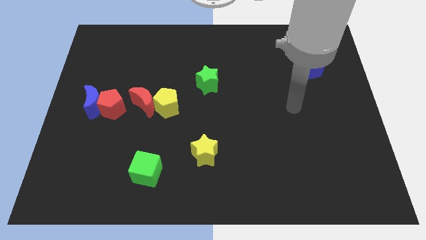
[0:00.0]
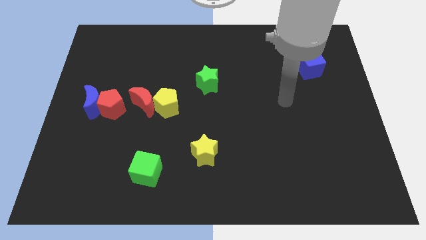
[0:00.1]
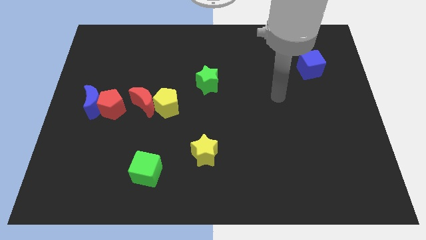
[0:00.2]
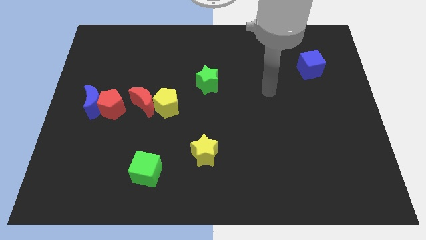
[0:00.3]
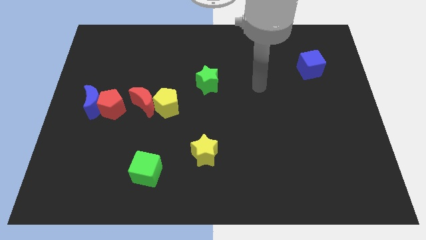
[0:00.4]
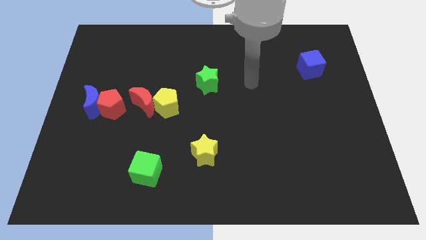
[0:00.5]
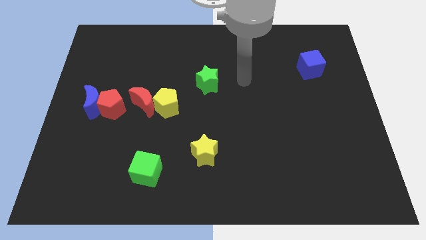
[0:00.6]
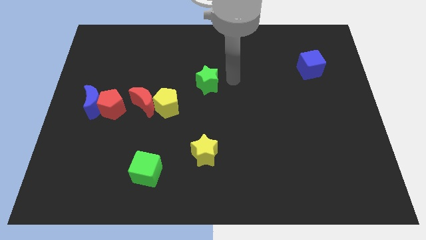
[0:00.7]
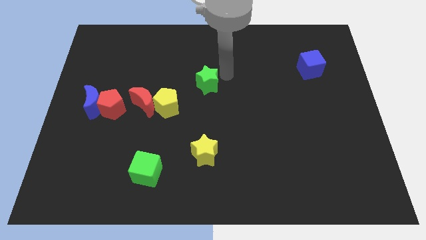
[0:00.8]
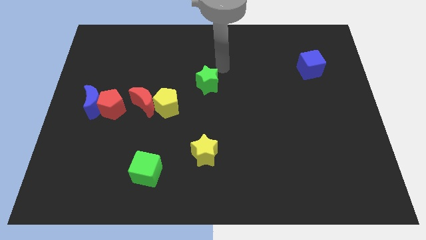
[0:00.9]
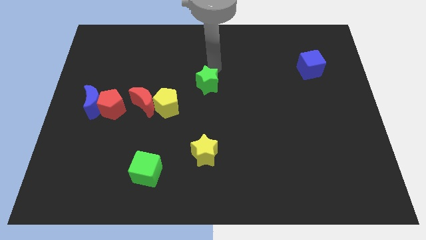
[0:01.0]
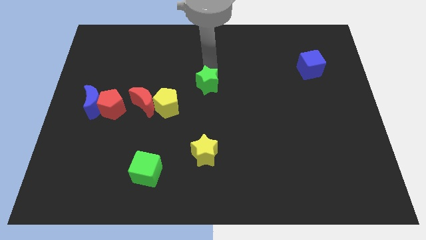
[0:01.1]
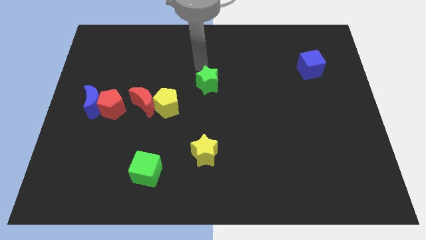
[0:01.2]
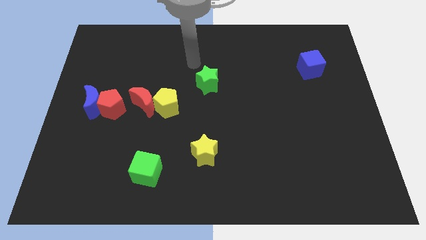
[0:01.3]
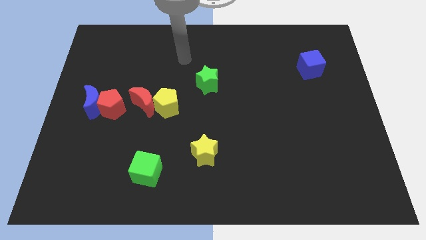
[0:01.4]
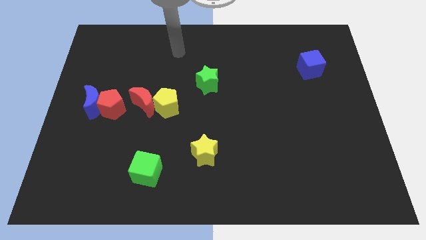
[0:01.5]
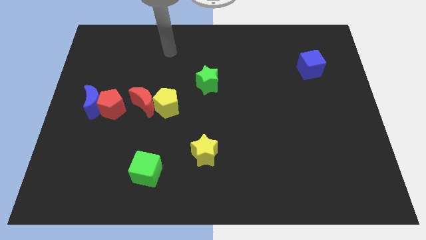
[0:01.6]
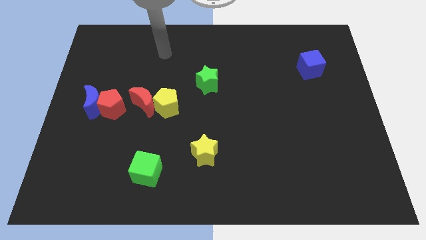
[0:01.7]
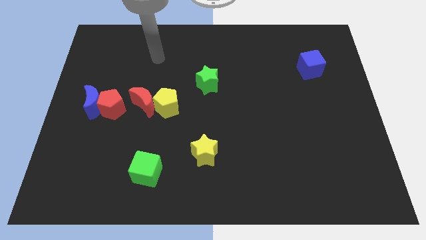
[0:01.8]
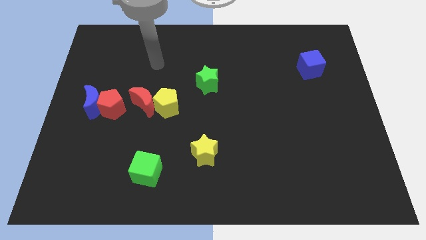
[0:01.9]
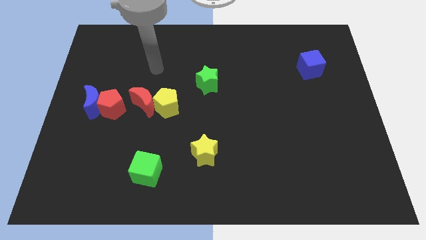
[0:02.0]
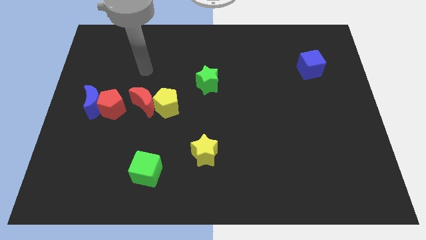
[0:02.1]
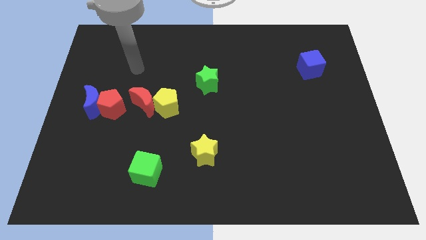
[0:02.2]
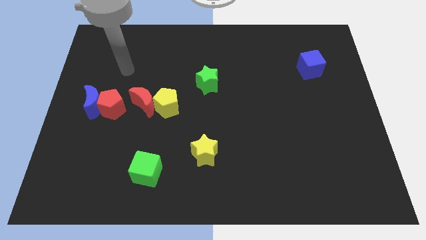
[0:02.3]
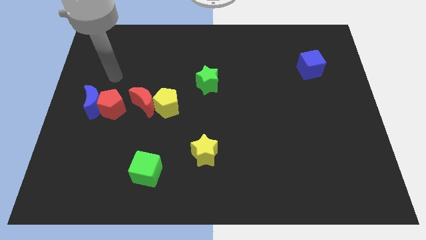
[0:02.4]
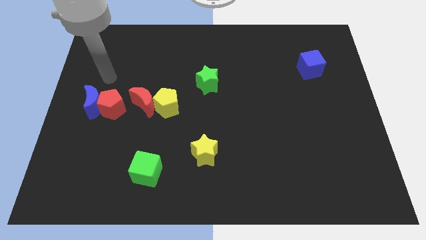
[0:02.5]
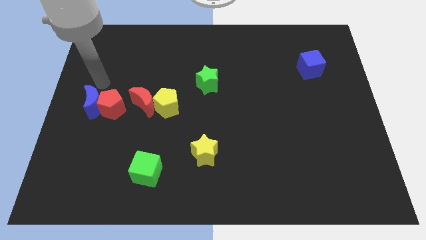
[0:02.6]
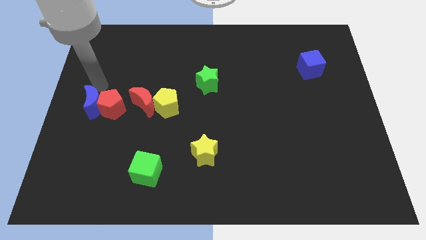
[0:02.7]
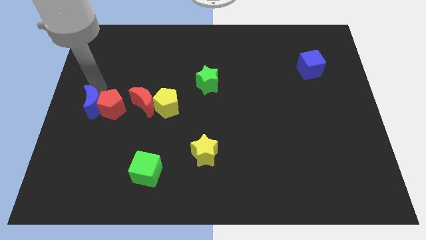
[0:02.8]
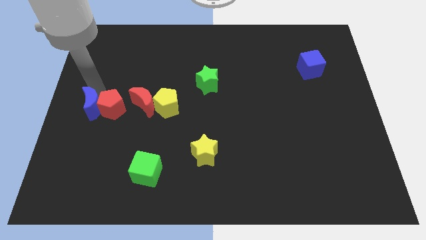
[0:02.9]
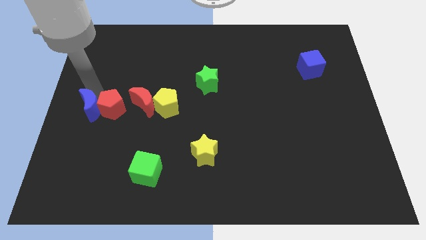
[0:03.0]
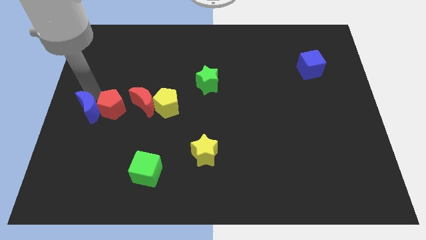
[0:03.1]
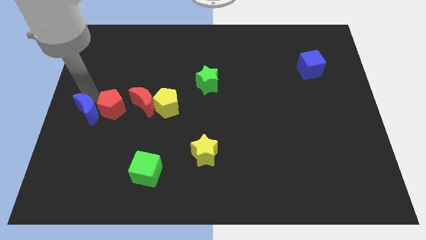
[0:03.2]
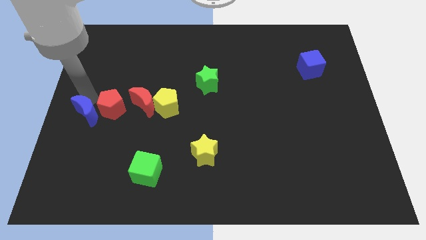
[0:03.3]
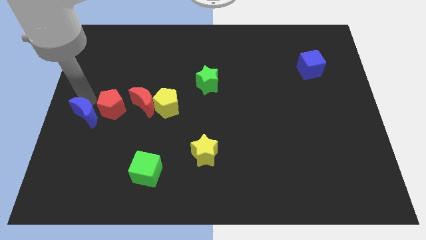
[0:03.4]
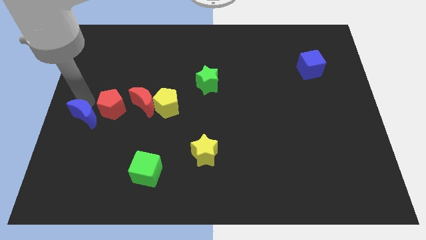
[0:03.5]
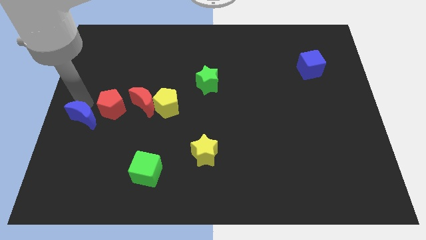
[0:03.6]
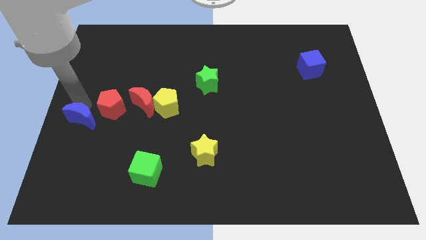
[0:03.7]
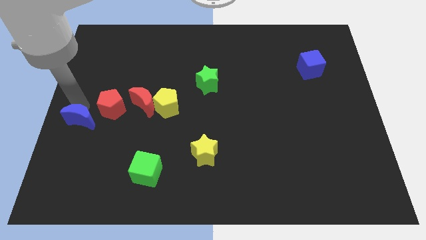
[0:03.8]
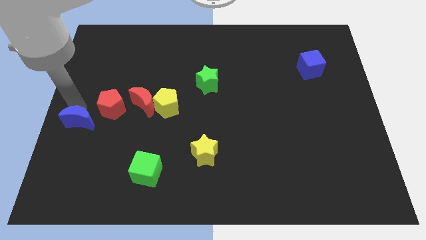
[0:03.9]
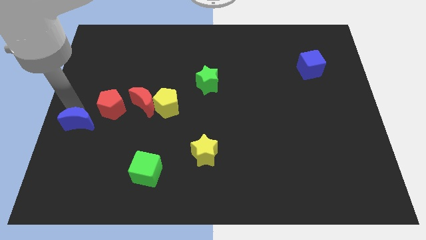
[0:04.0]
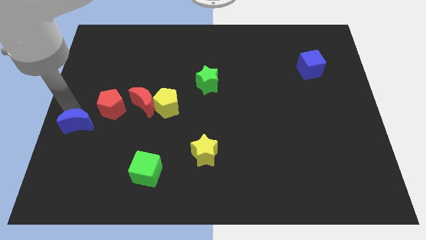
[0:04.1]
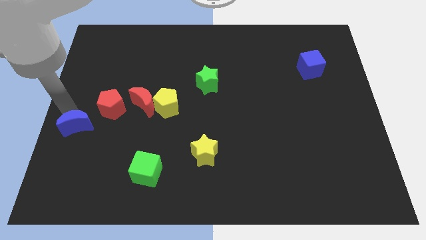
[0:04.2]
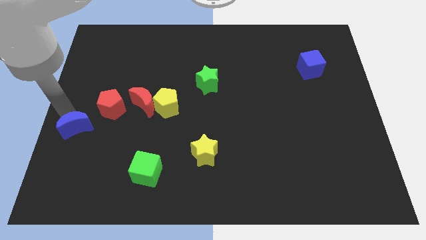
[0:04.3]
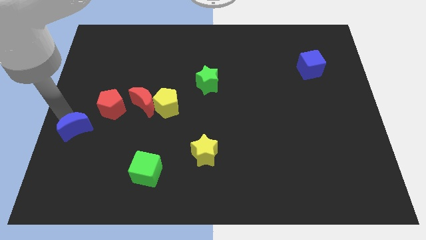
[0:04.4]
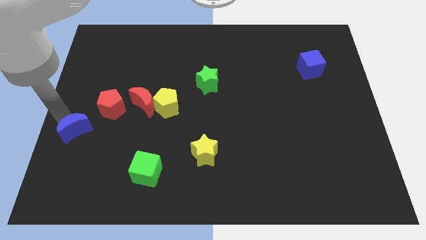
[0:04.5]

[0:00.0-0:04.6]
push the blue moon down a little bit

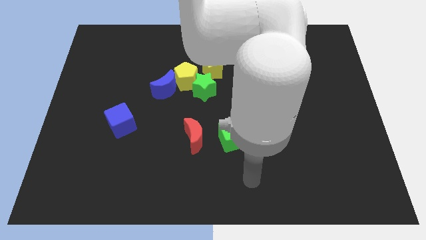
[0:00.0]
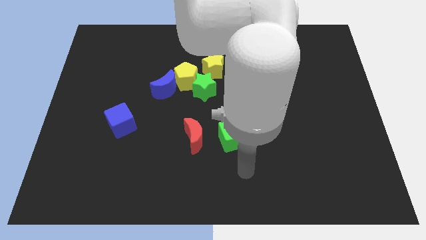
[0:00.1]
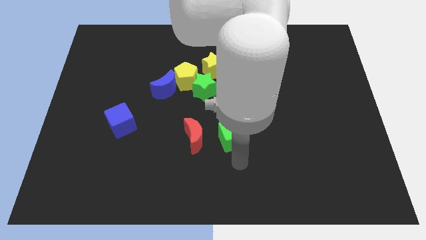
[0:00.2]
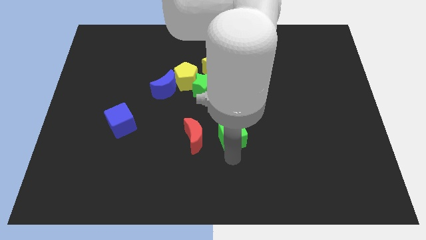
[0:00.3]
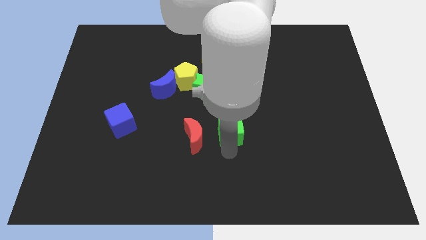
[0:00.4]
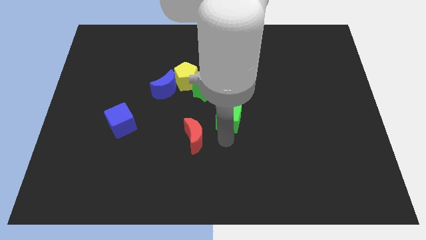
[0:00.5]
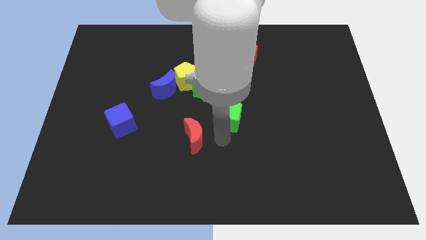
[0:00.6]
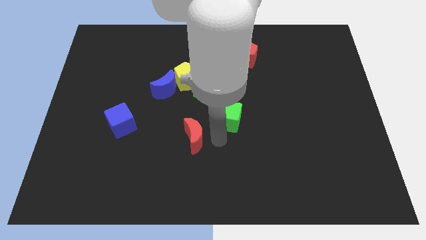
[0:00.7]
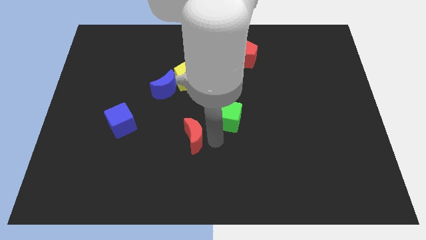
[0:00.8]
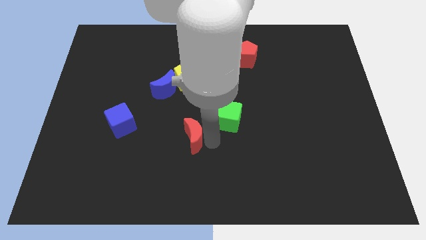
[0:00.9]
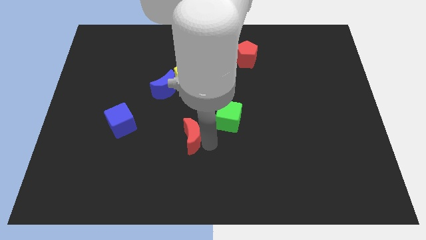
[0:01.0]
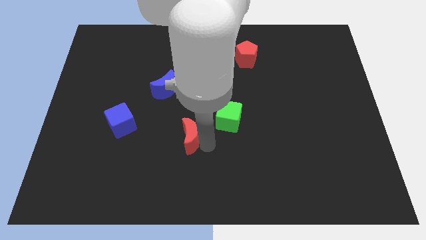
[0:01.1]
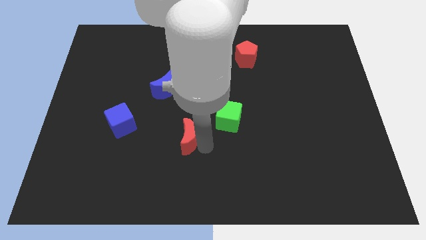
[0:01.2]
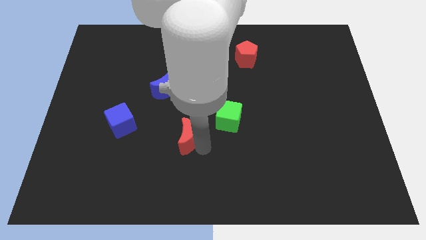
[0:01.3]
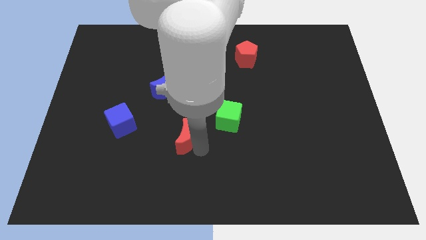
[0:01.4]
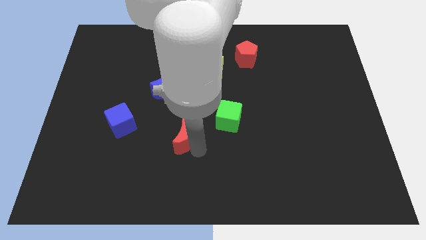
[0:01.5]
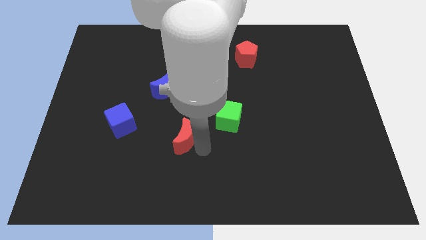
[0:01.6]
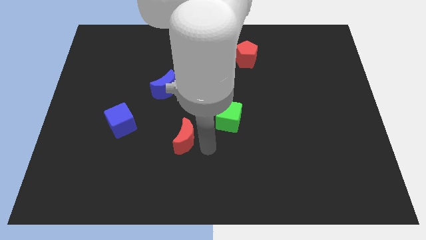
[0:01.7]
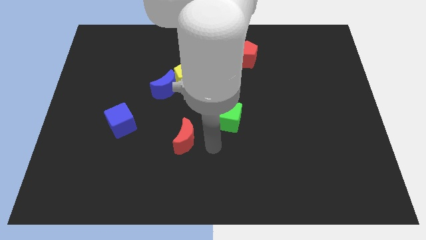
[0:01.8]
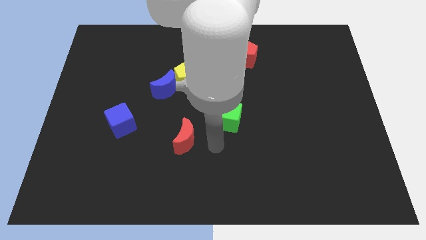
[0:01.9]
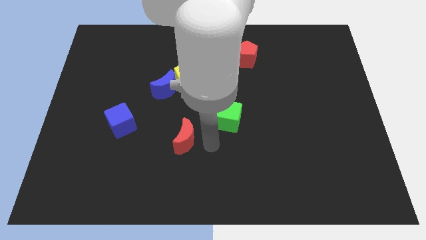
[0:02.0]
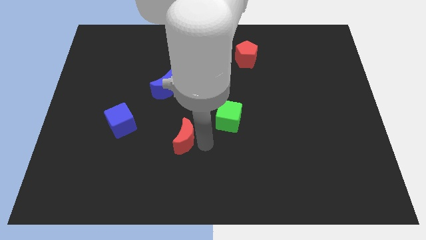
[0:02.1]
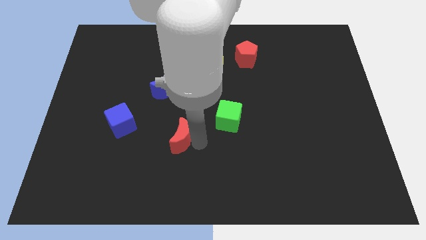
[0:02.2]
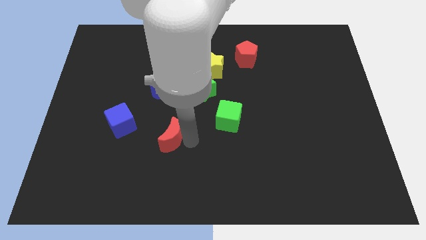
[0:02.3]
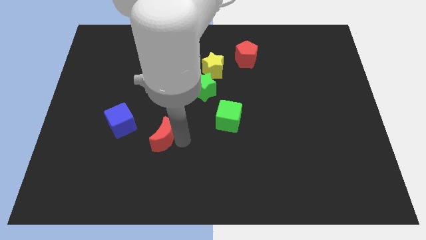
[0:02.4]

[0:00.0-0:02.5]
push the red moon somewhat left

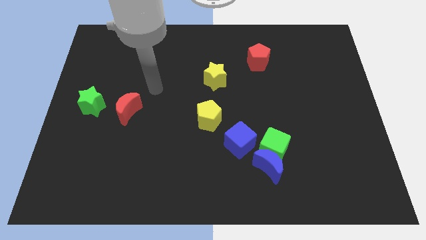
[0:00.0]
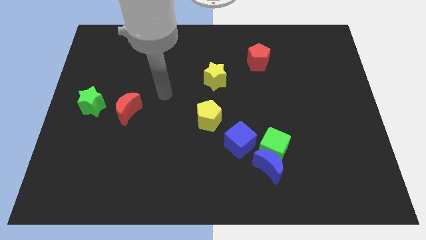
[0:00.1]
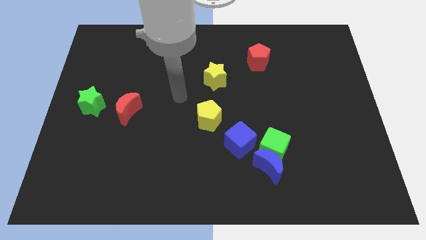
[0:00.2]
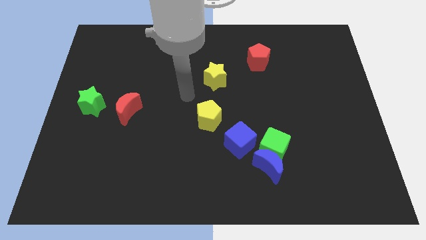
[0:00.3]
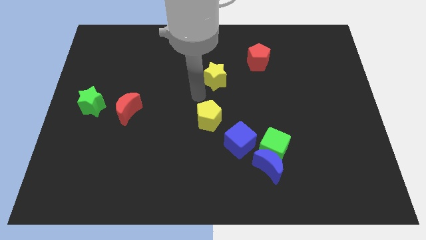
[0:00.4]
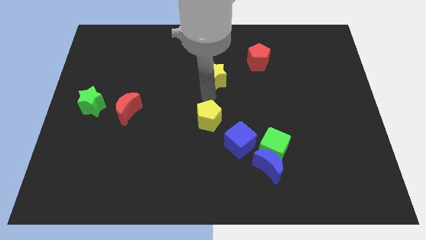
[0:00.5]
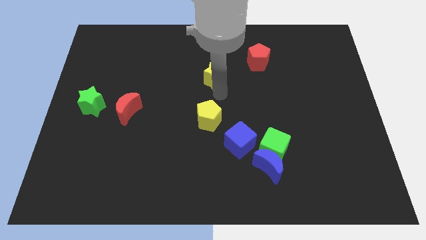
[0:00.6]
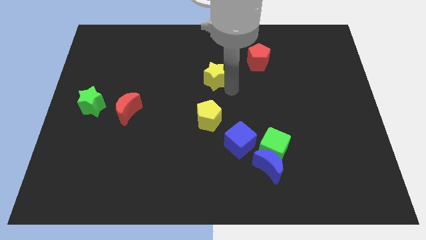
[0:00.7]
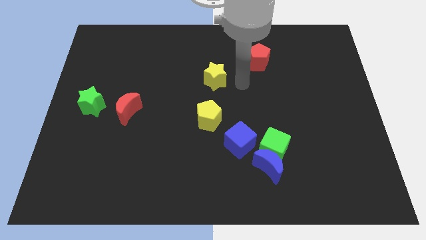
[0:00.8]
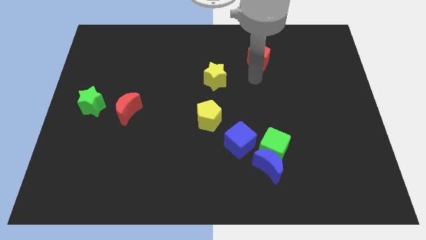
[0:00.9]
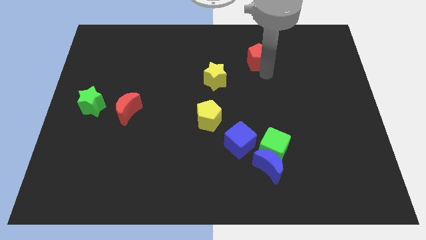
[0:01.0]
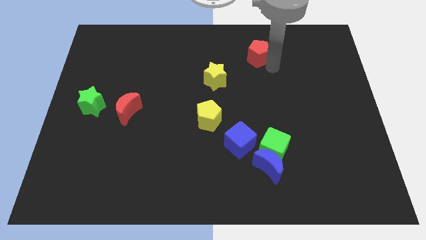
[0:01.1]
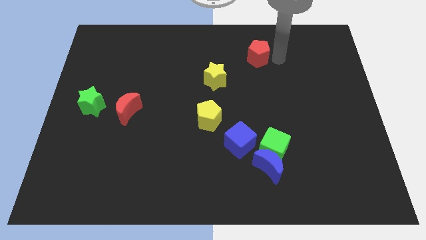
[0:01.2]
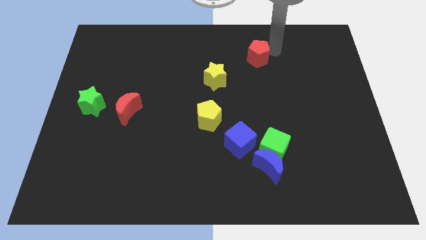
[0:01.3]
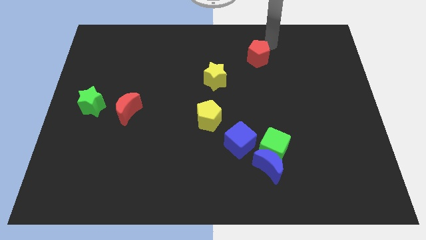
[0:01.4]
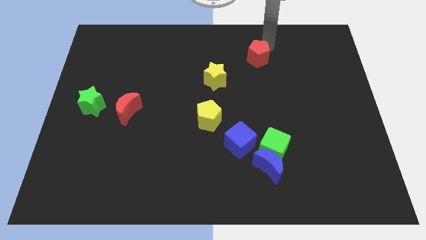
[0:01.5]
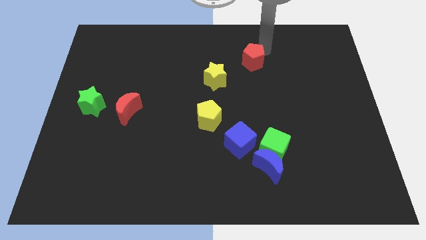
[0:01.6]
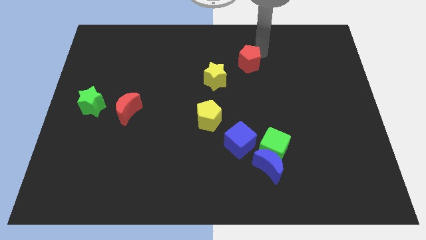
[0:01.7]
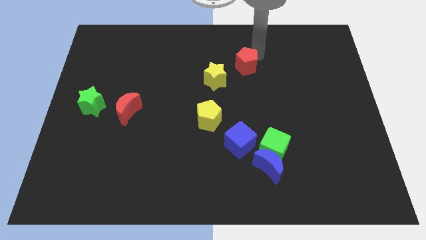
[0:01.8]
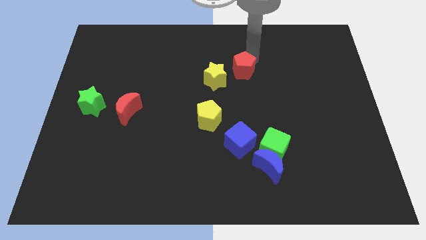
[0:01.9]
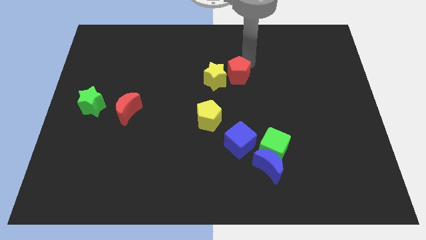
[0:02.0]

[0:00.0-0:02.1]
push the red pentagon somewhat down and then to the left
